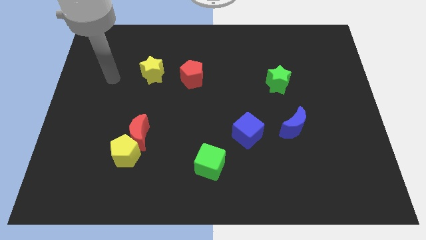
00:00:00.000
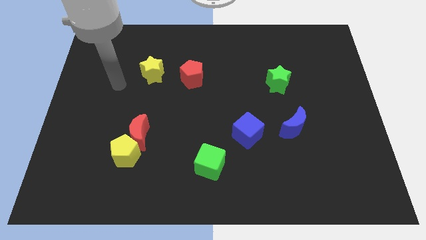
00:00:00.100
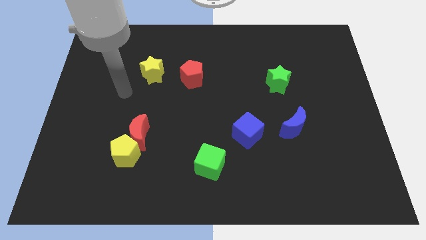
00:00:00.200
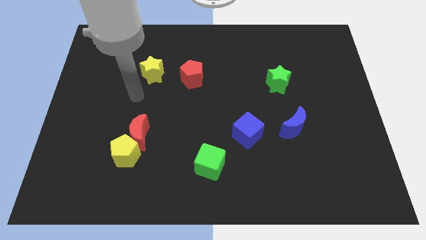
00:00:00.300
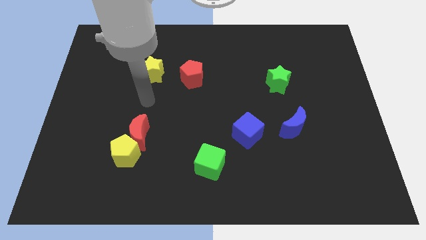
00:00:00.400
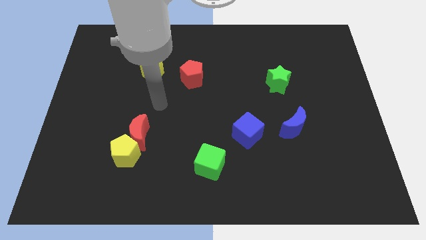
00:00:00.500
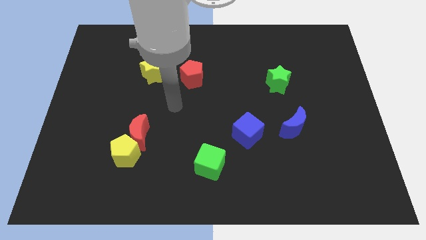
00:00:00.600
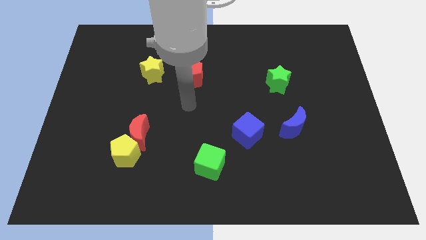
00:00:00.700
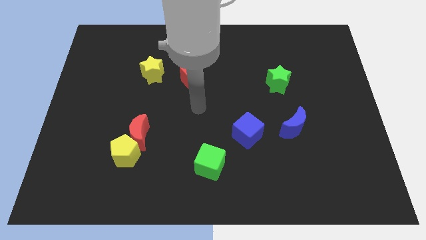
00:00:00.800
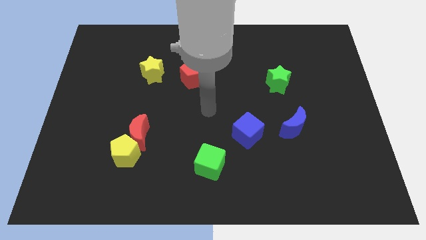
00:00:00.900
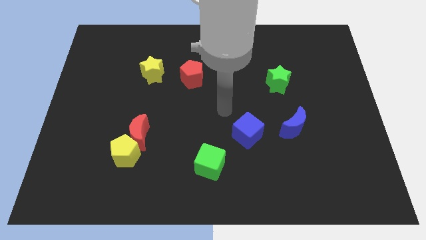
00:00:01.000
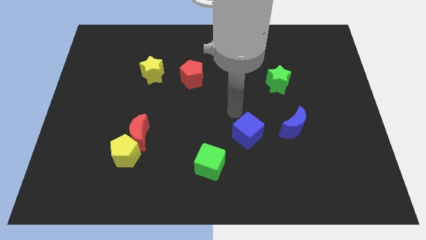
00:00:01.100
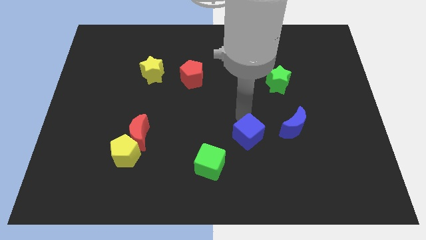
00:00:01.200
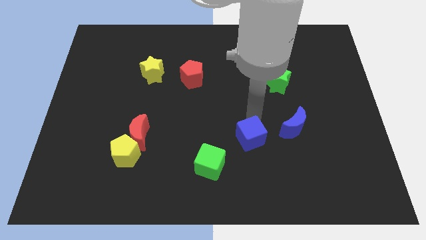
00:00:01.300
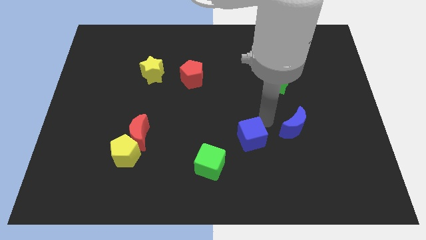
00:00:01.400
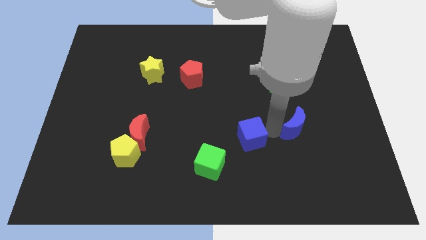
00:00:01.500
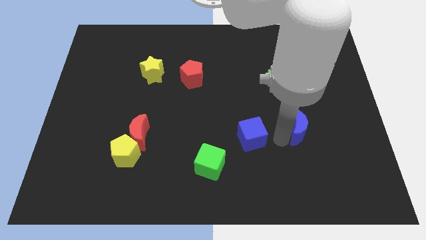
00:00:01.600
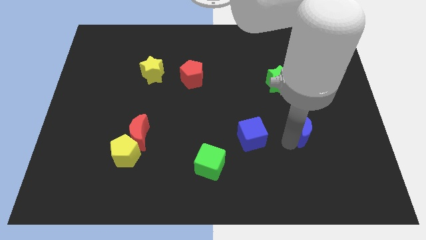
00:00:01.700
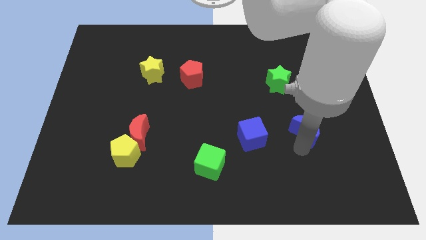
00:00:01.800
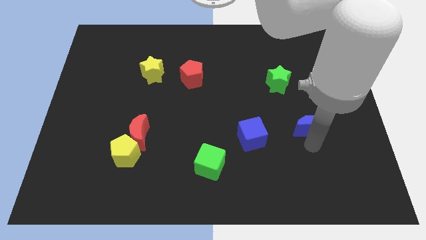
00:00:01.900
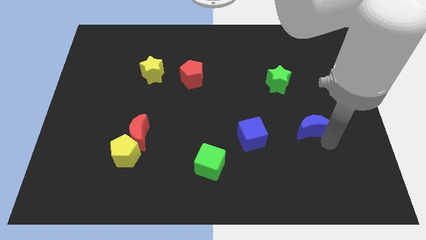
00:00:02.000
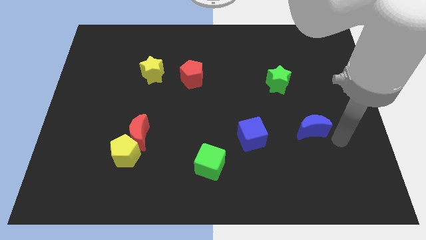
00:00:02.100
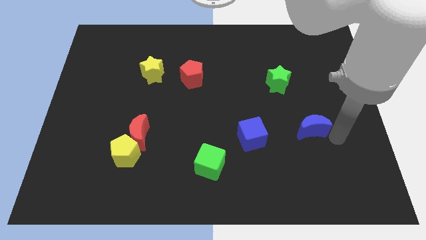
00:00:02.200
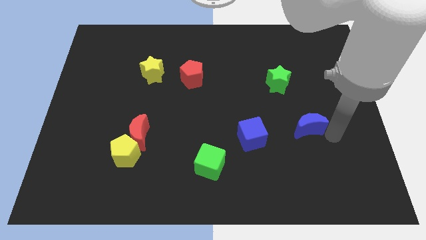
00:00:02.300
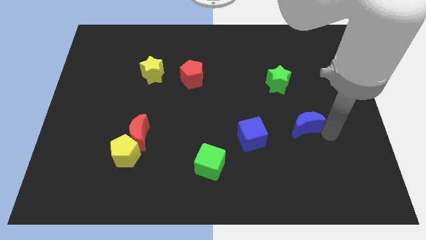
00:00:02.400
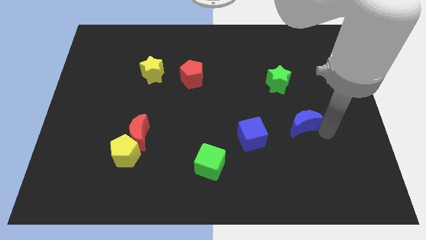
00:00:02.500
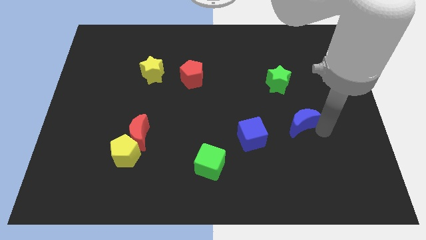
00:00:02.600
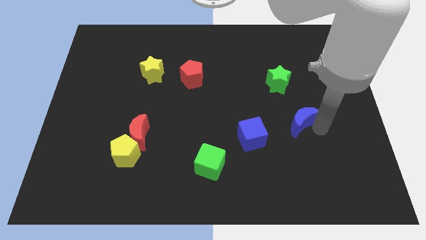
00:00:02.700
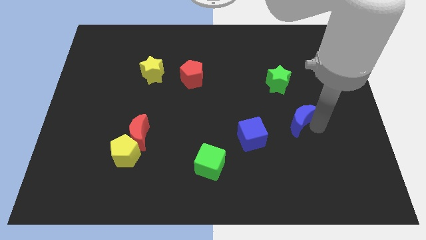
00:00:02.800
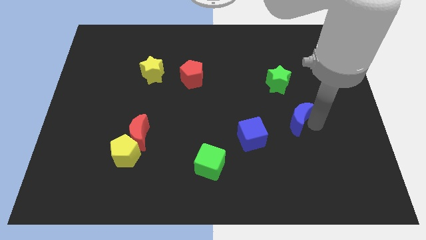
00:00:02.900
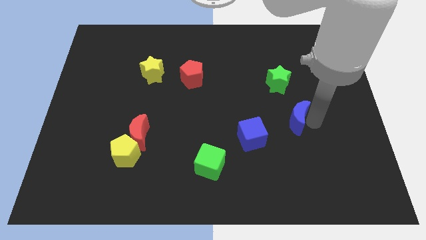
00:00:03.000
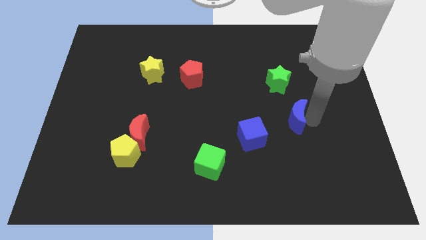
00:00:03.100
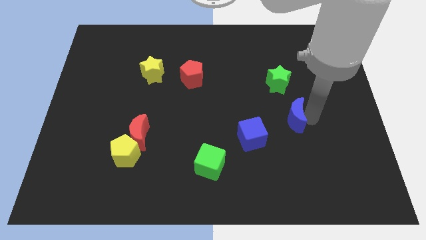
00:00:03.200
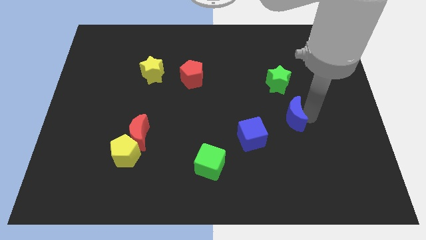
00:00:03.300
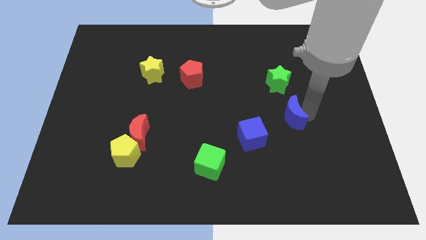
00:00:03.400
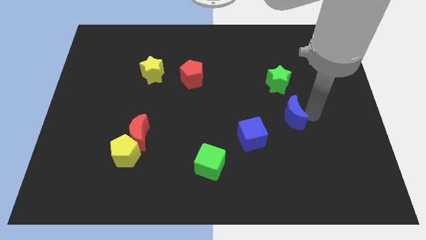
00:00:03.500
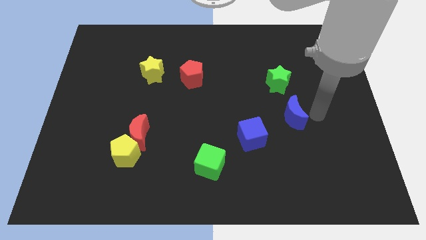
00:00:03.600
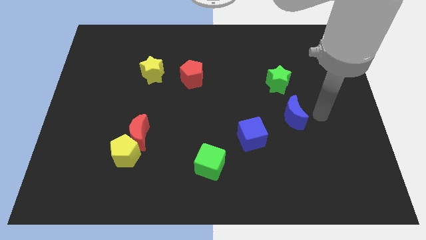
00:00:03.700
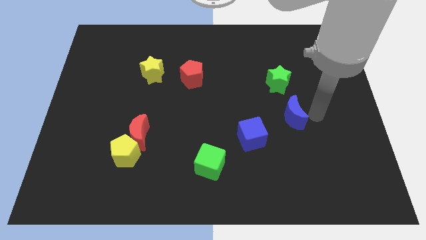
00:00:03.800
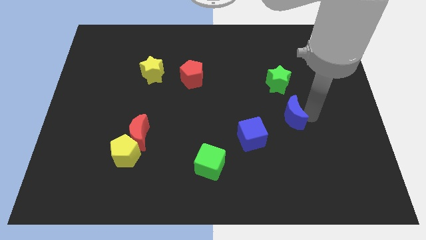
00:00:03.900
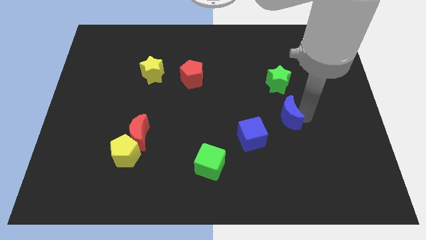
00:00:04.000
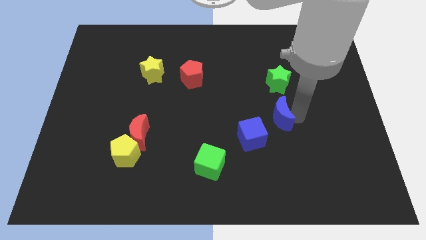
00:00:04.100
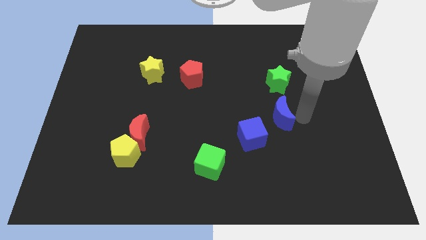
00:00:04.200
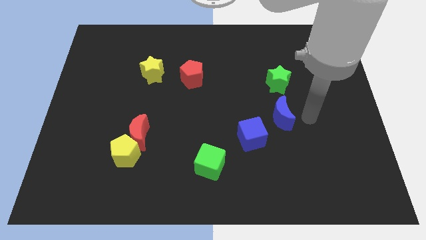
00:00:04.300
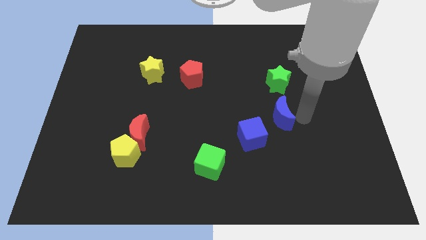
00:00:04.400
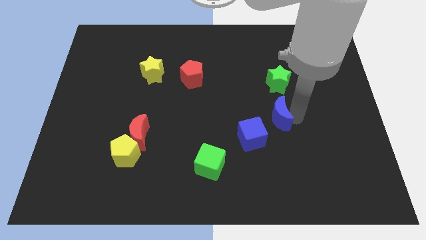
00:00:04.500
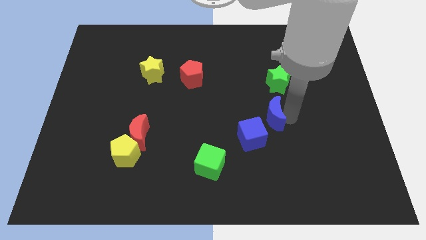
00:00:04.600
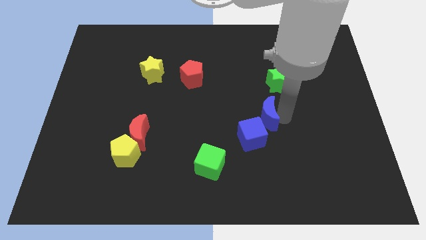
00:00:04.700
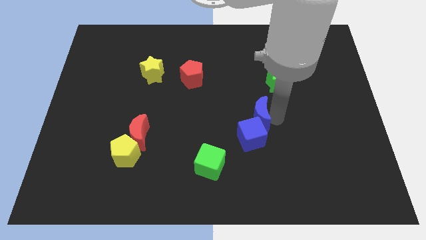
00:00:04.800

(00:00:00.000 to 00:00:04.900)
put the blue moon to the middle of the board

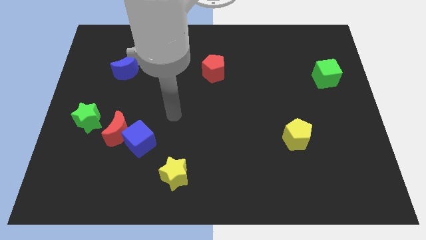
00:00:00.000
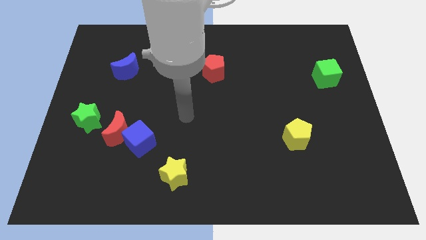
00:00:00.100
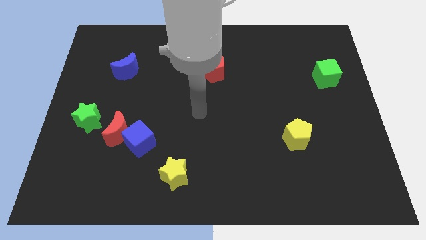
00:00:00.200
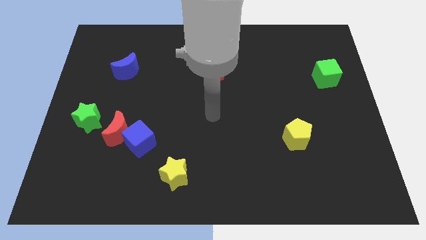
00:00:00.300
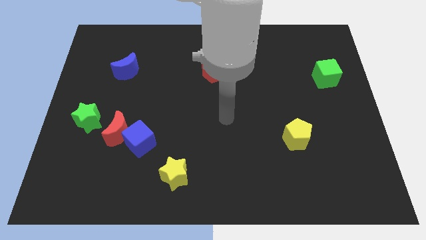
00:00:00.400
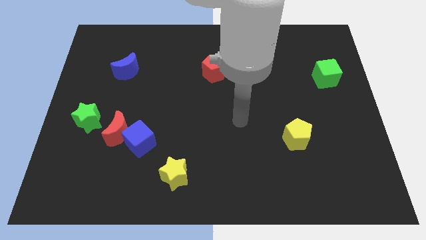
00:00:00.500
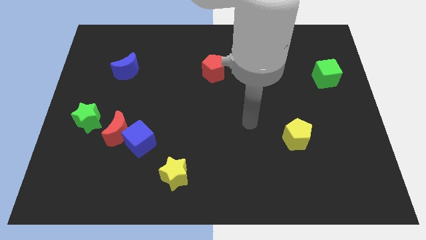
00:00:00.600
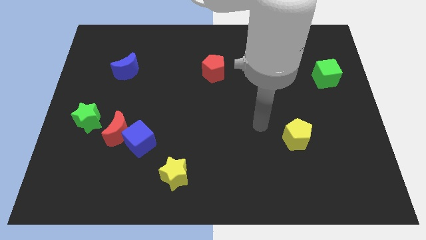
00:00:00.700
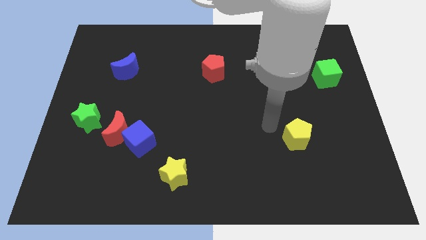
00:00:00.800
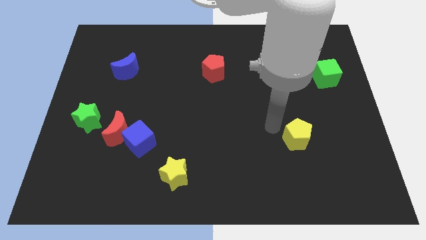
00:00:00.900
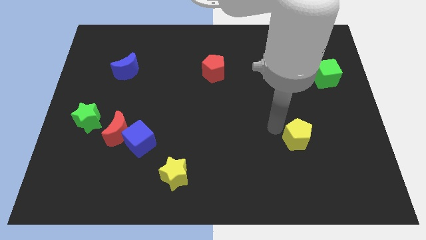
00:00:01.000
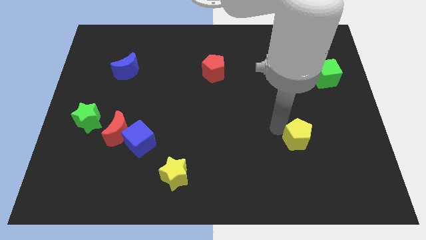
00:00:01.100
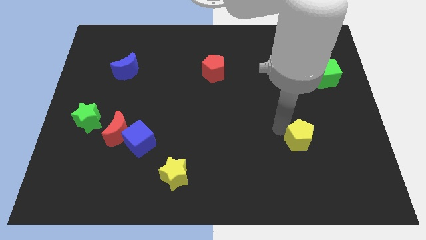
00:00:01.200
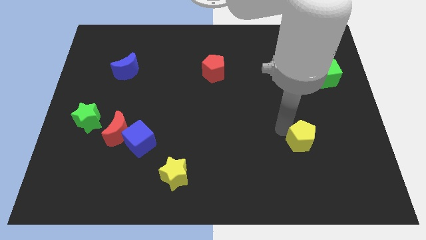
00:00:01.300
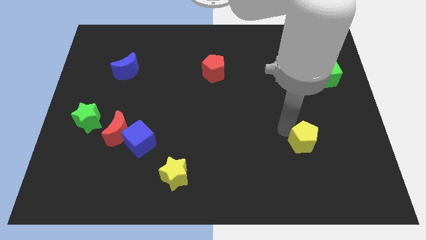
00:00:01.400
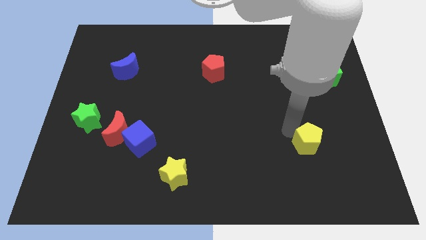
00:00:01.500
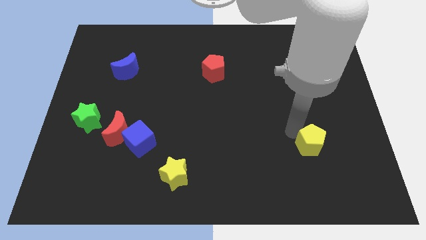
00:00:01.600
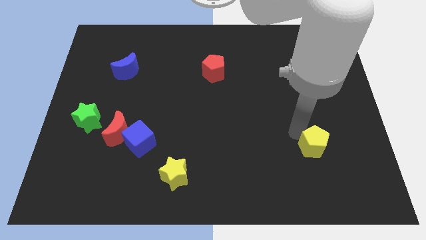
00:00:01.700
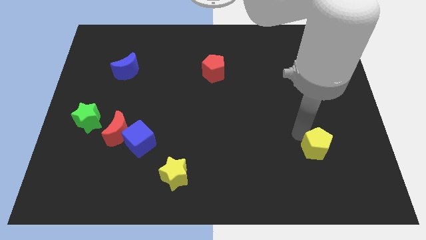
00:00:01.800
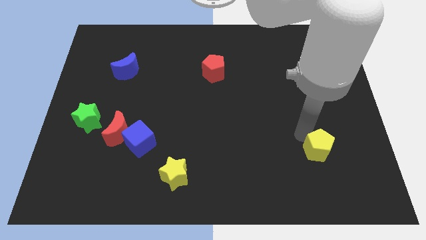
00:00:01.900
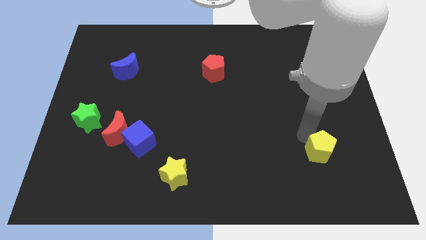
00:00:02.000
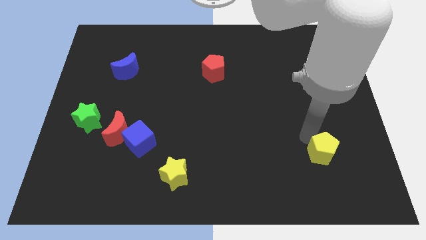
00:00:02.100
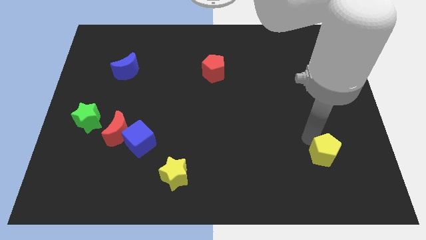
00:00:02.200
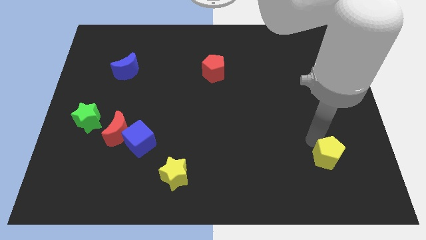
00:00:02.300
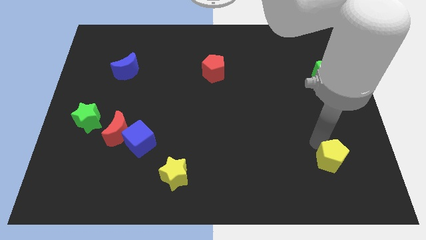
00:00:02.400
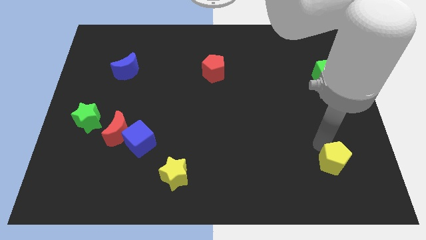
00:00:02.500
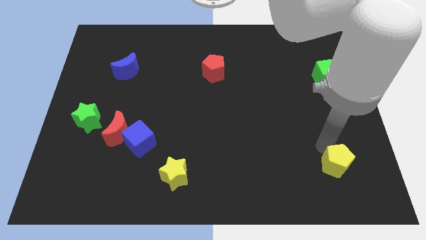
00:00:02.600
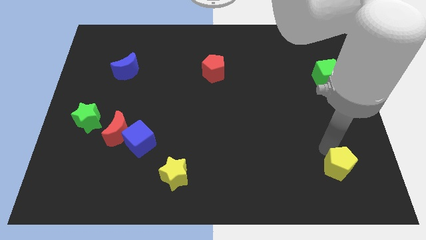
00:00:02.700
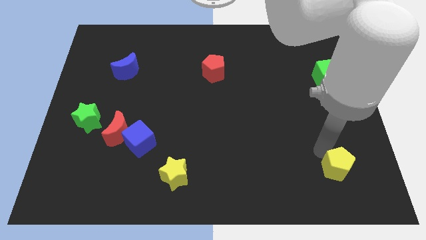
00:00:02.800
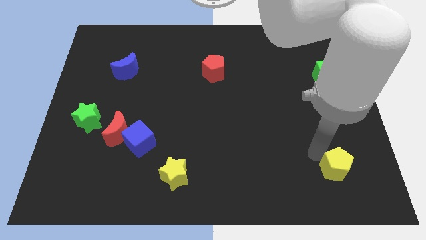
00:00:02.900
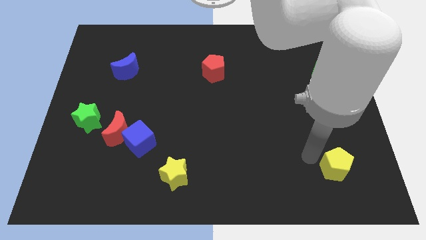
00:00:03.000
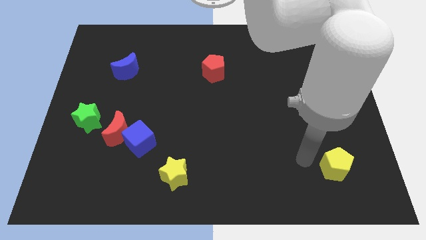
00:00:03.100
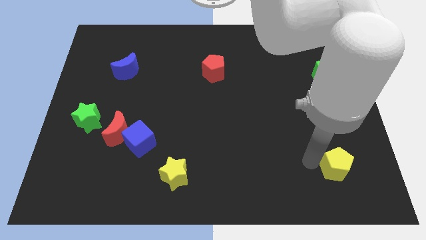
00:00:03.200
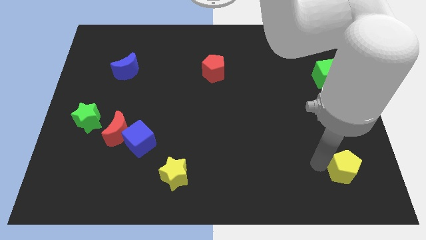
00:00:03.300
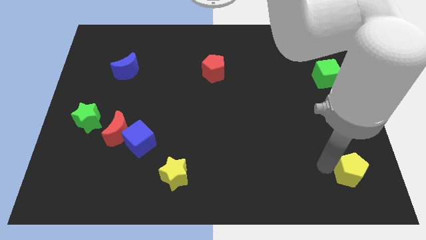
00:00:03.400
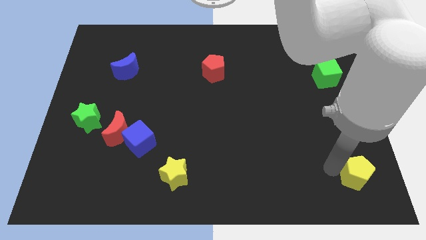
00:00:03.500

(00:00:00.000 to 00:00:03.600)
put the yellow pentagon to the lower right corner
